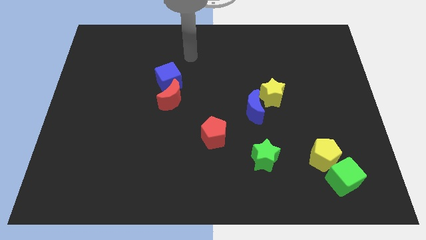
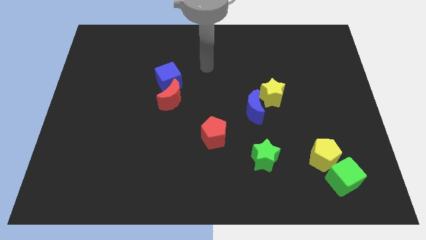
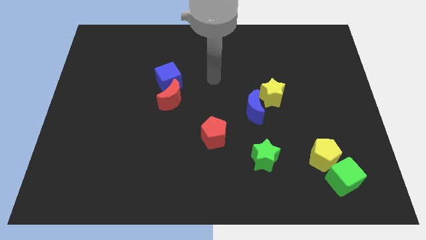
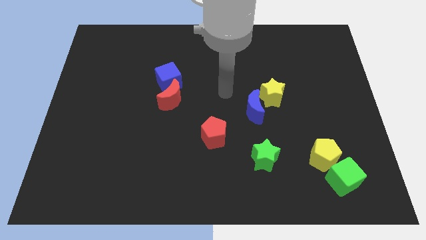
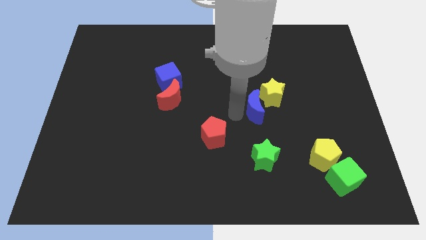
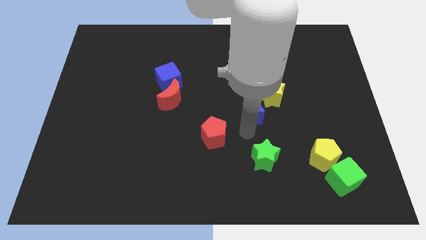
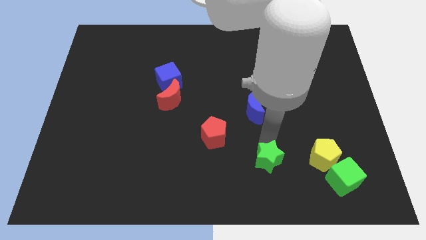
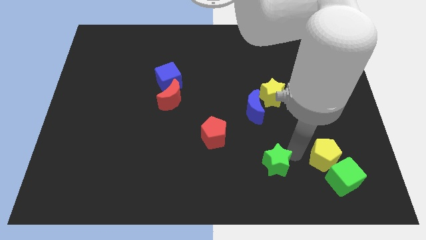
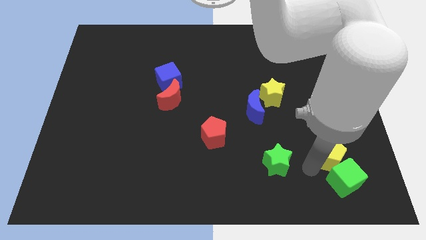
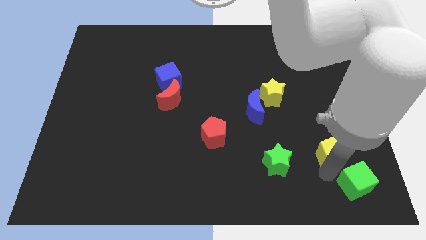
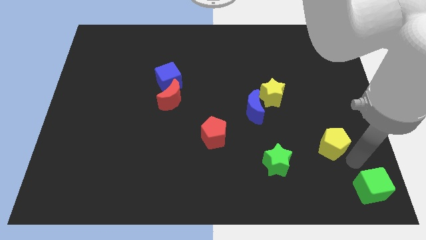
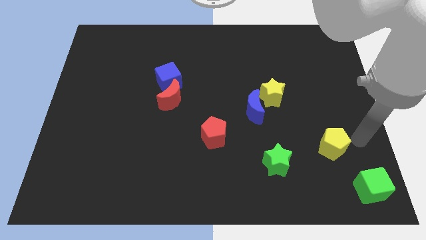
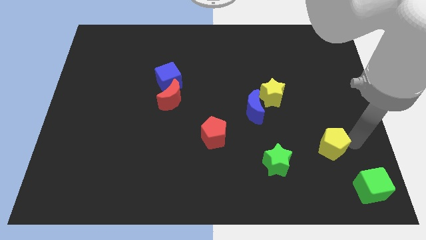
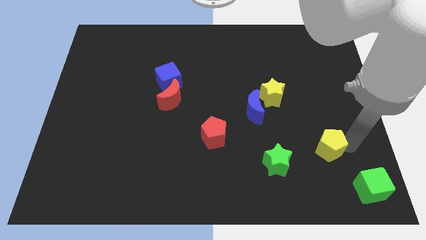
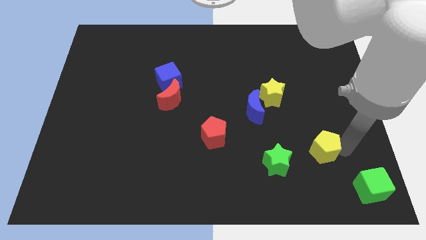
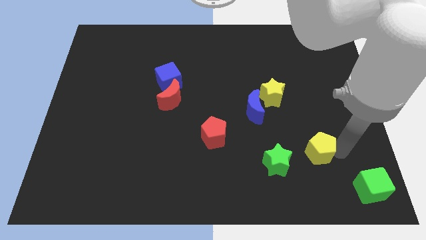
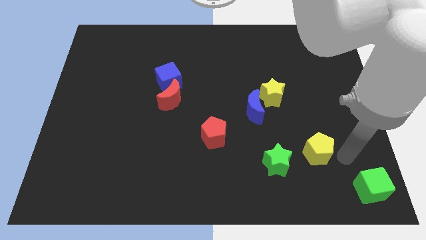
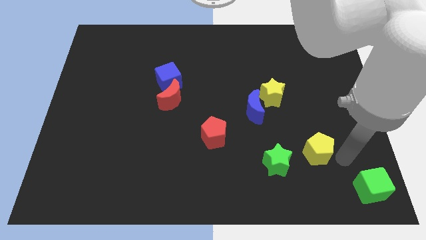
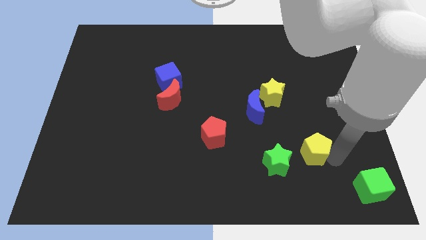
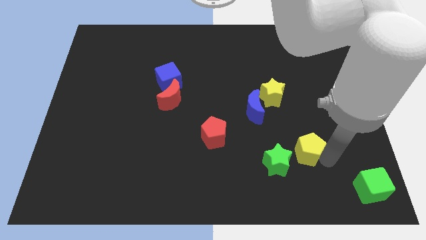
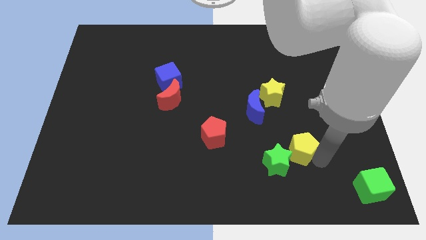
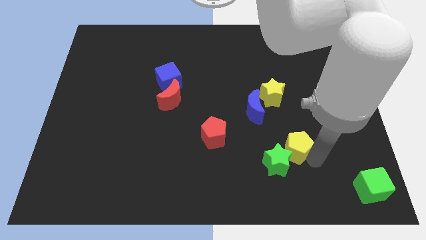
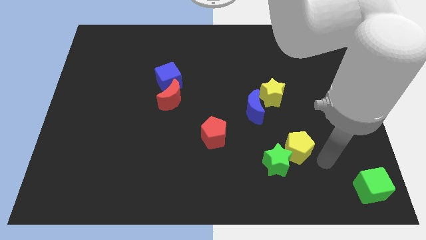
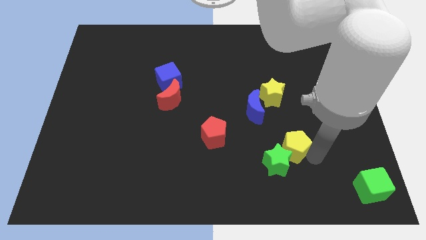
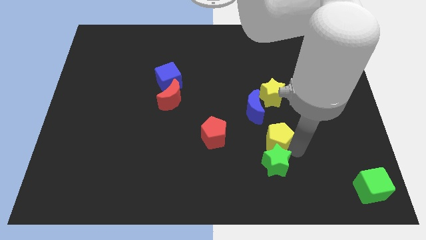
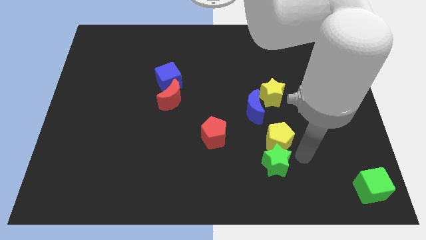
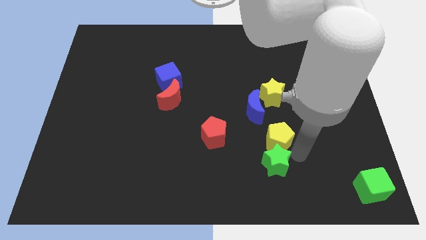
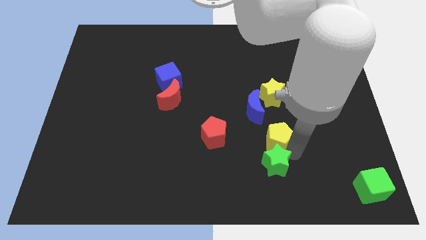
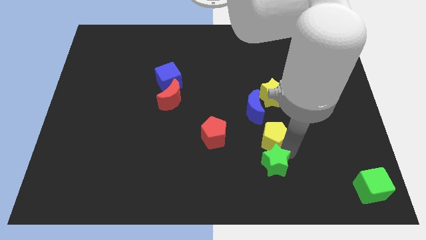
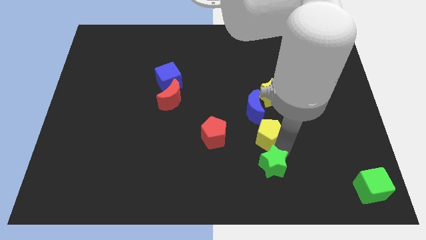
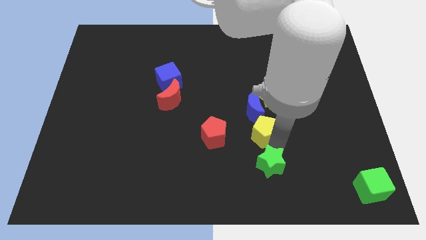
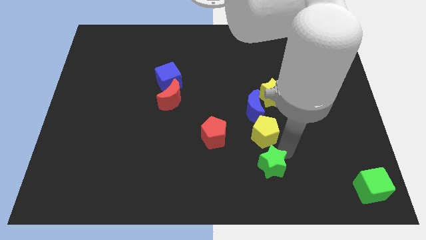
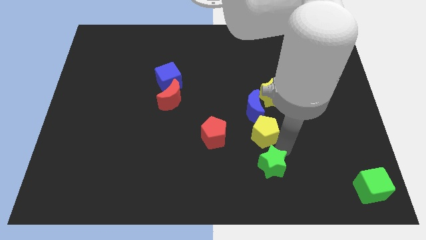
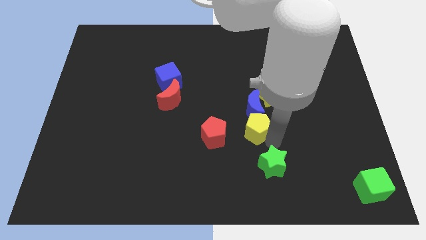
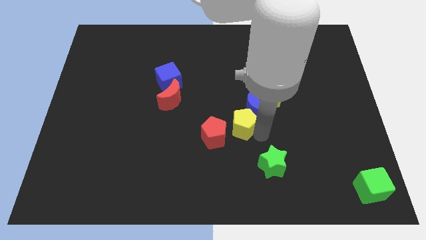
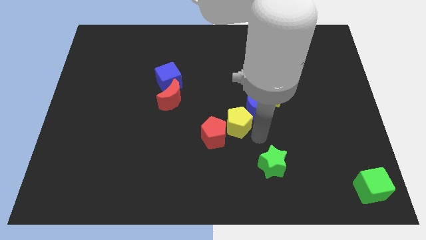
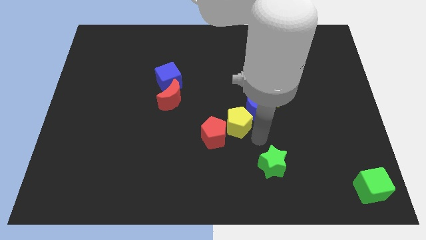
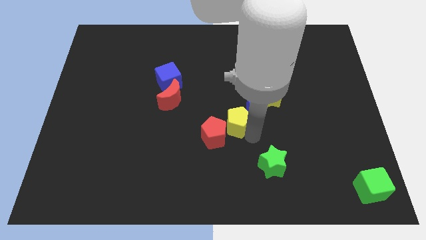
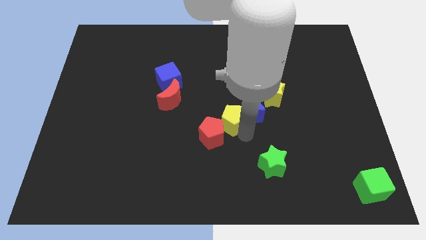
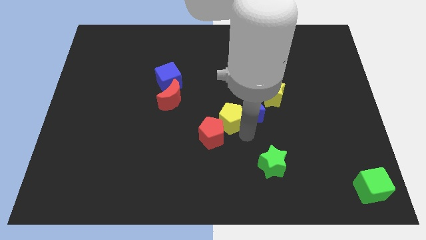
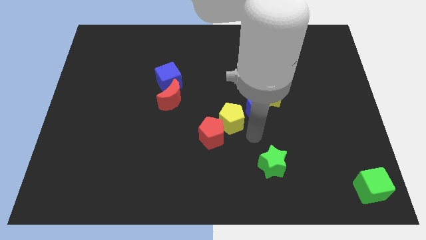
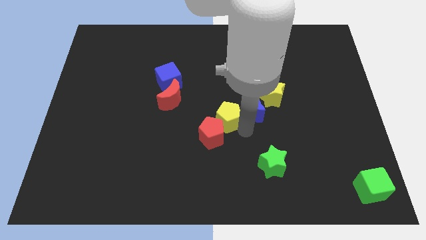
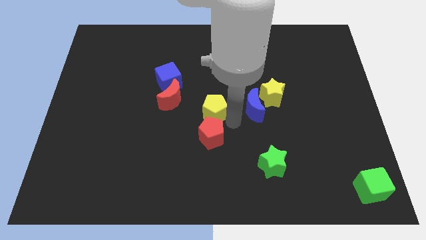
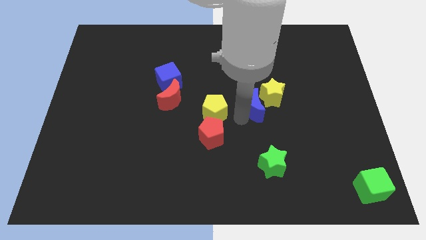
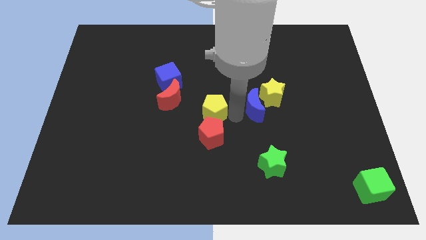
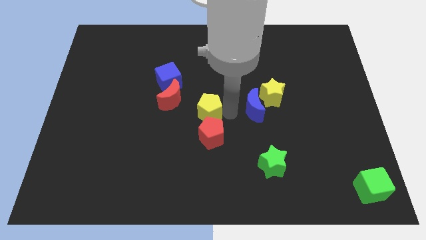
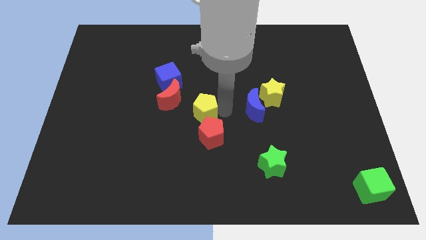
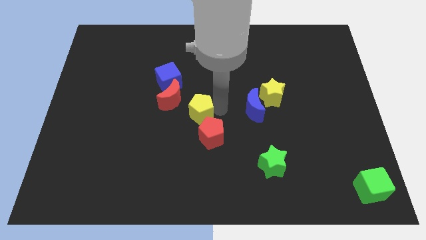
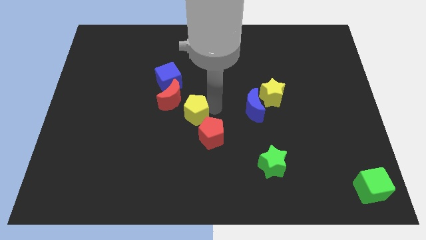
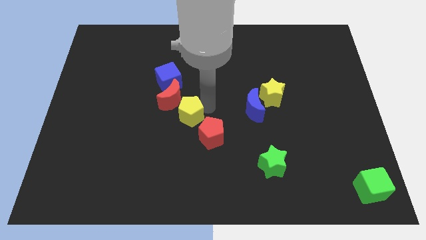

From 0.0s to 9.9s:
slide the yellow pentagon to the red moon

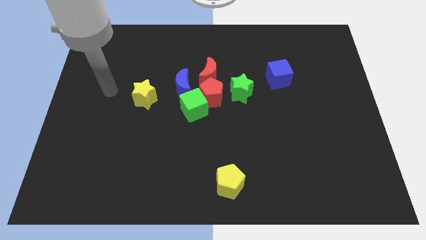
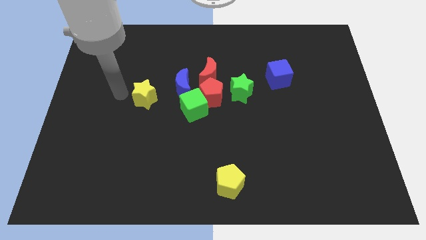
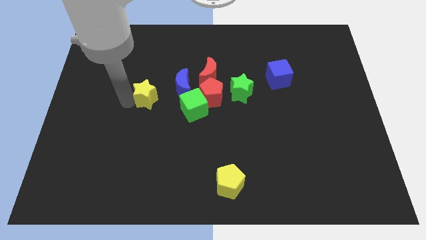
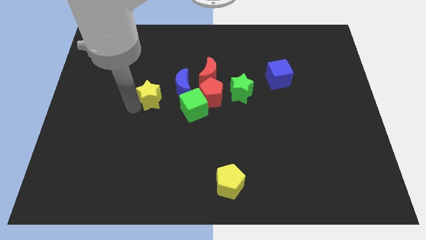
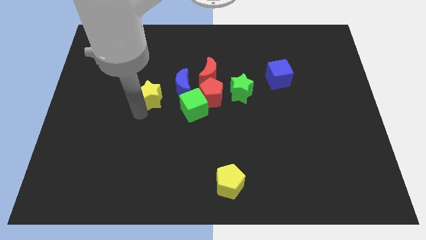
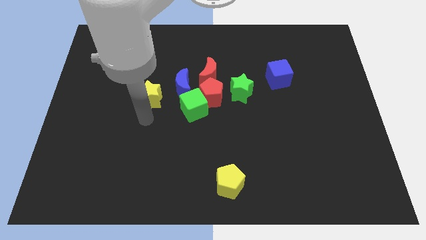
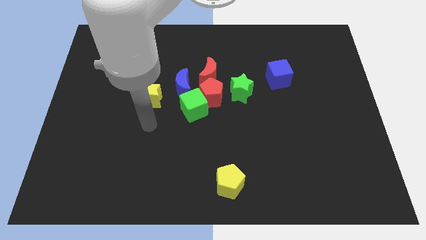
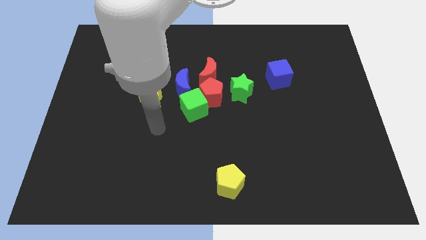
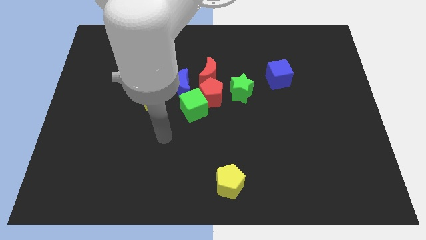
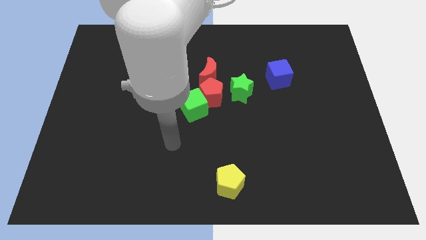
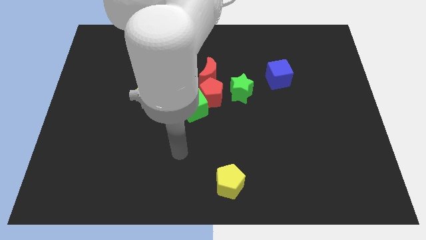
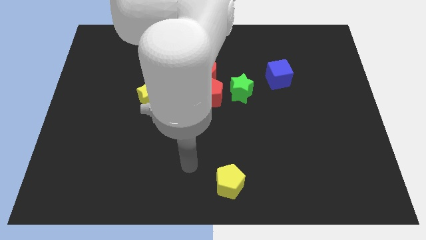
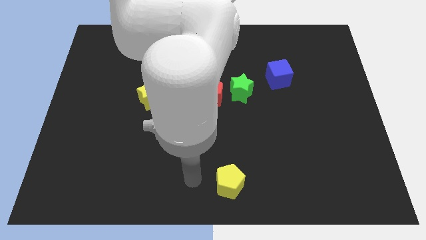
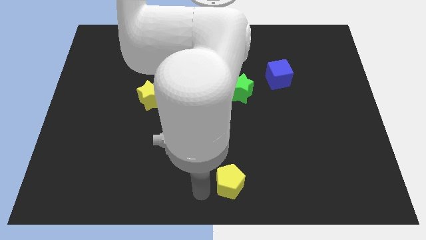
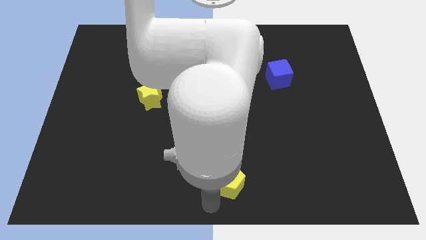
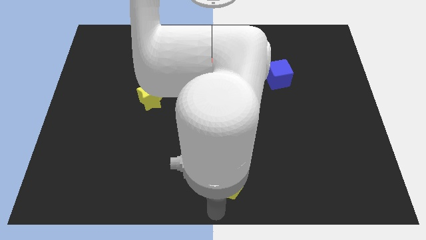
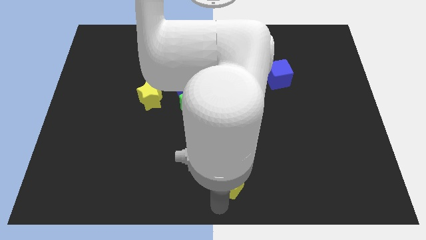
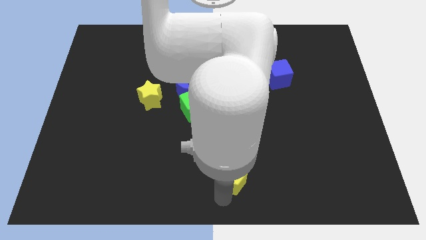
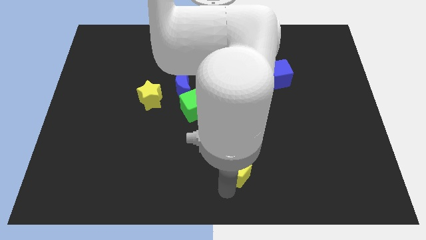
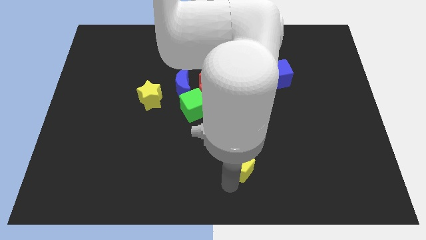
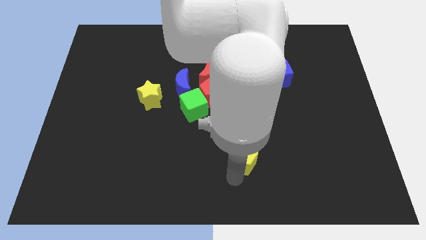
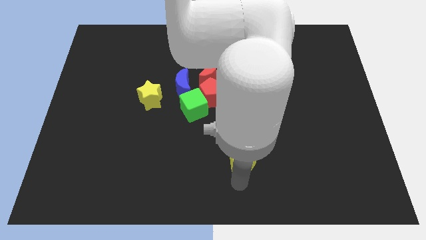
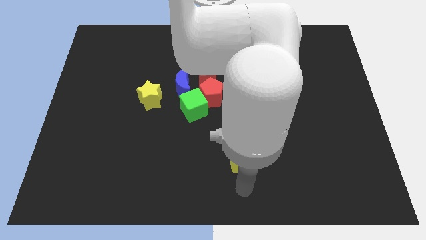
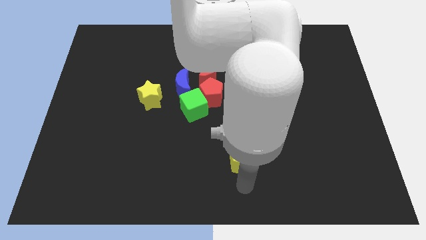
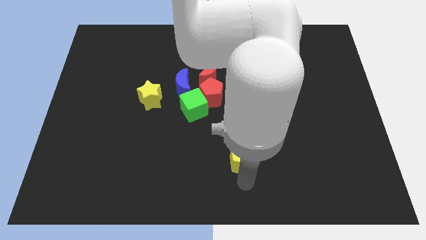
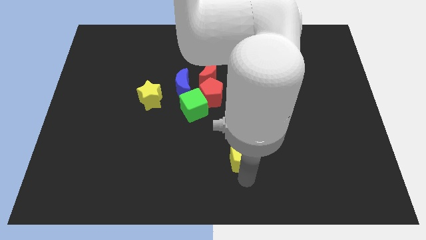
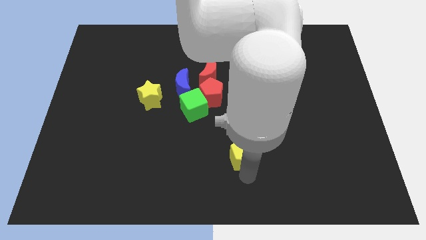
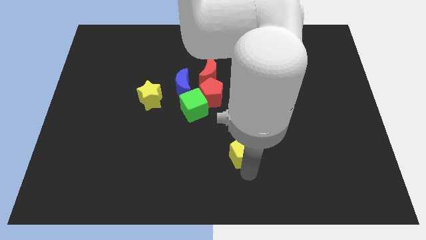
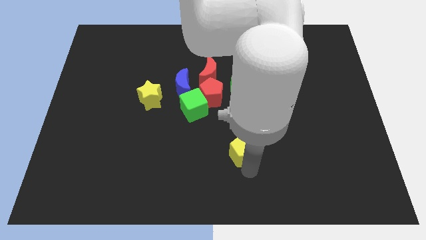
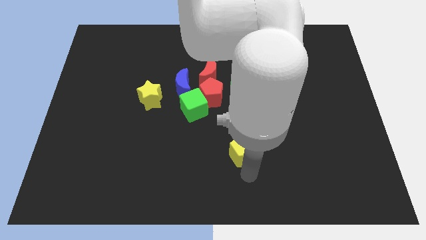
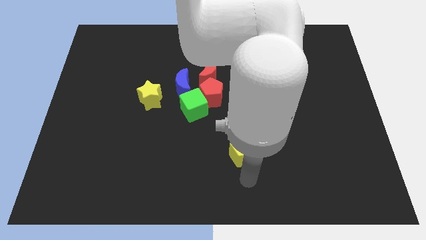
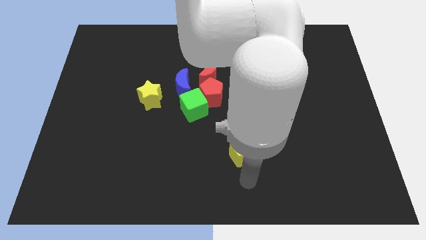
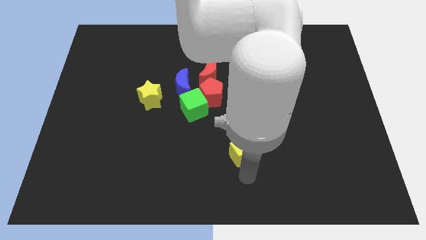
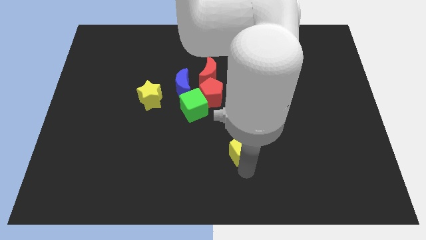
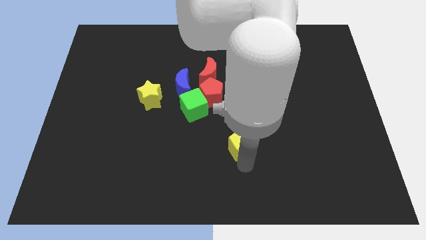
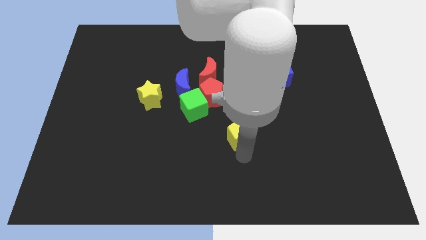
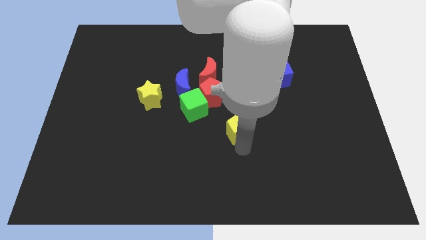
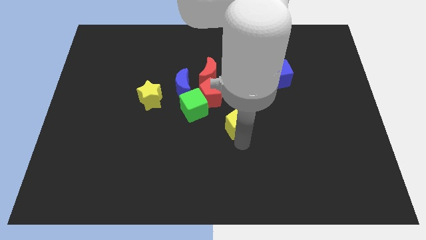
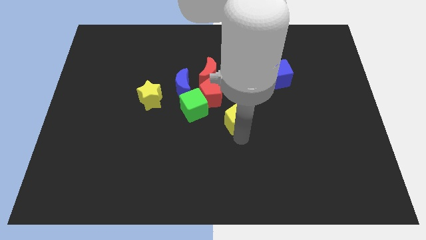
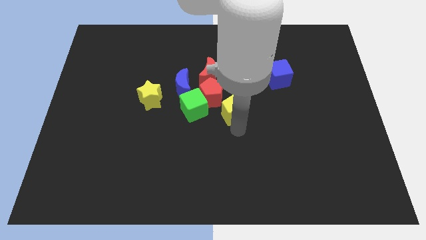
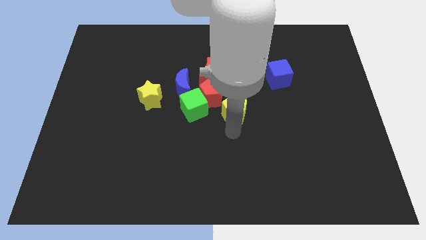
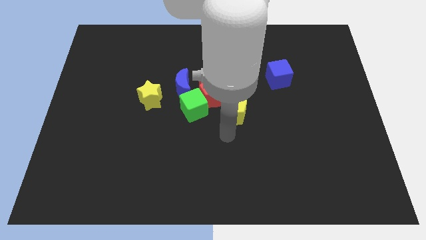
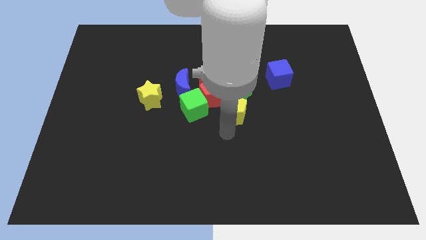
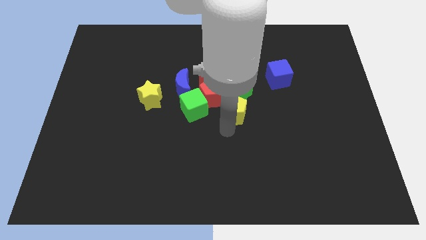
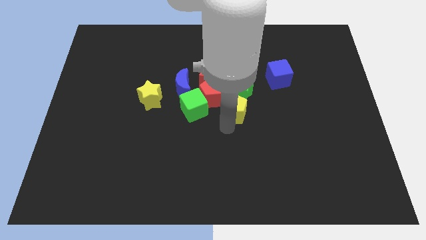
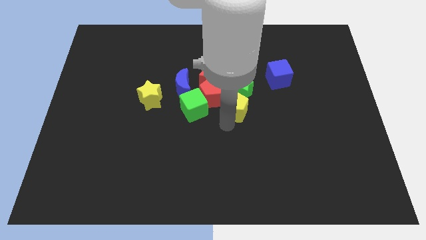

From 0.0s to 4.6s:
push the yellow pentagon close to the green star
